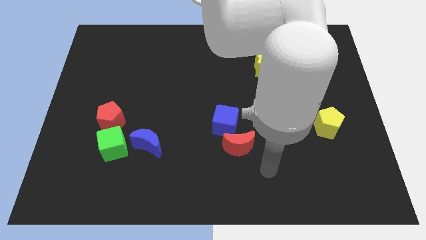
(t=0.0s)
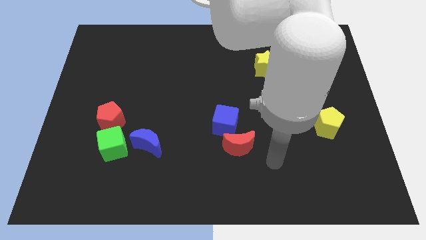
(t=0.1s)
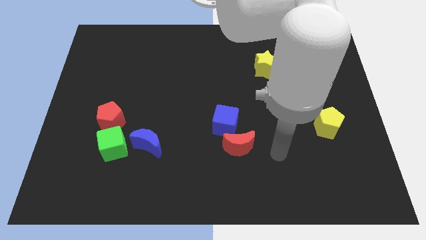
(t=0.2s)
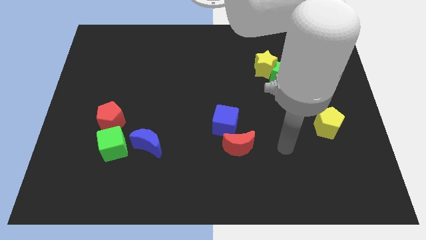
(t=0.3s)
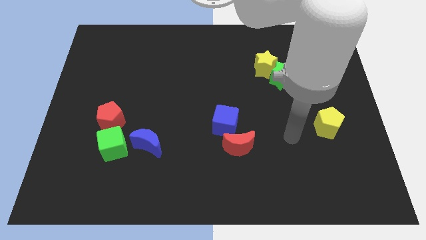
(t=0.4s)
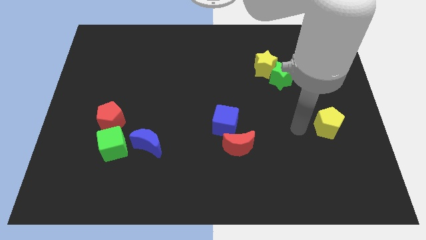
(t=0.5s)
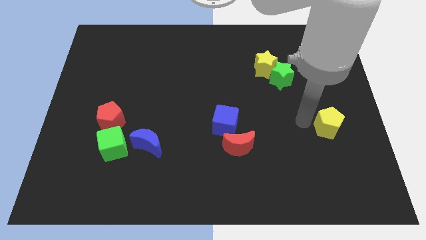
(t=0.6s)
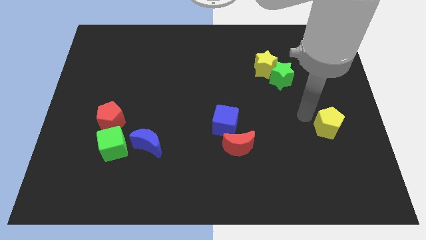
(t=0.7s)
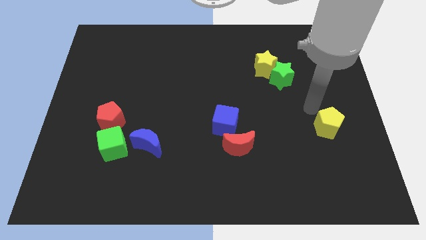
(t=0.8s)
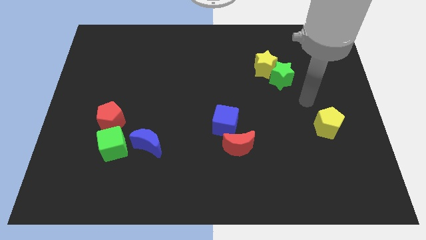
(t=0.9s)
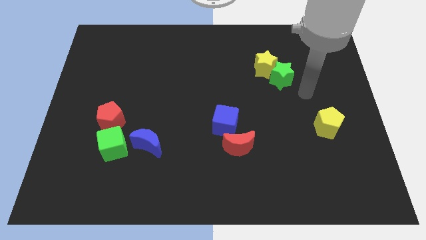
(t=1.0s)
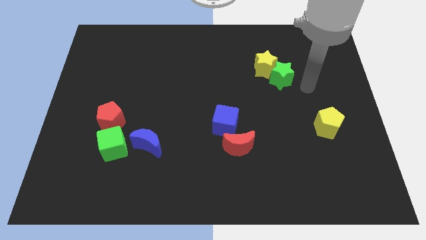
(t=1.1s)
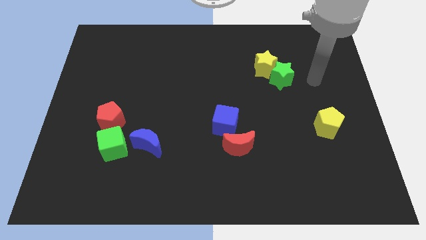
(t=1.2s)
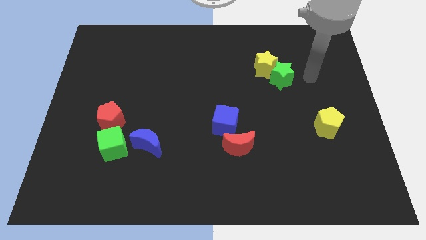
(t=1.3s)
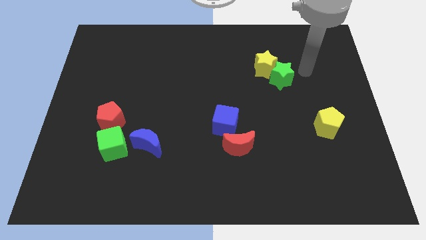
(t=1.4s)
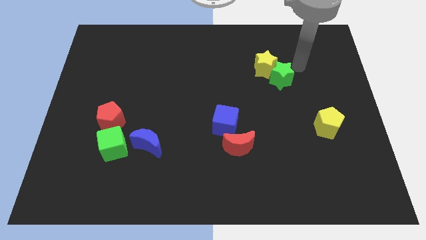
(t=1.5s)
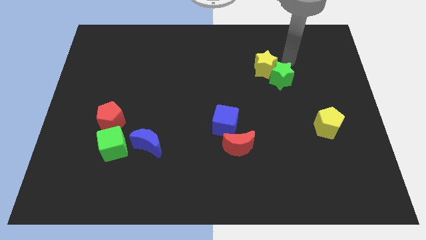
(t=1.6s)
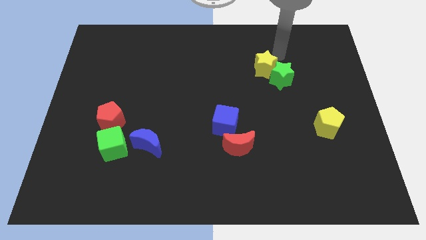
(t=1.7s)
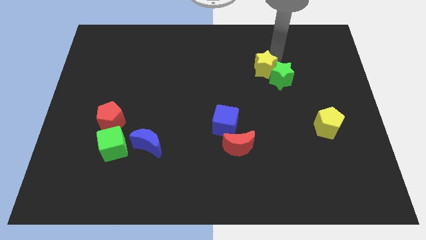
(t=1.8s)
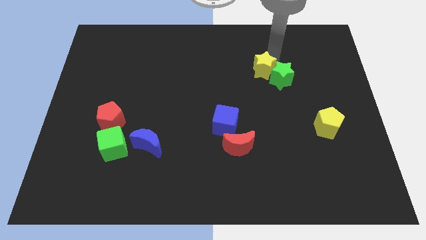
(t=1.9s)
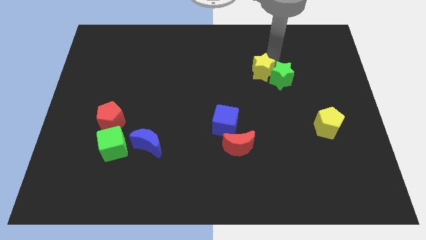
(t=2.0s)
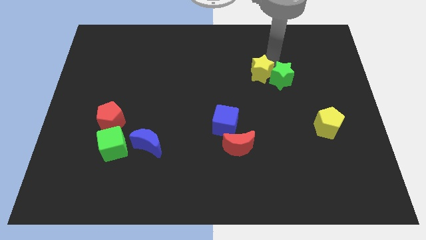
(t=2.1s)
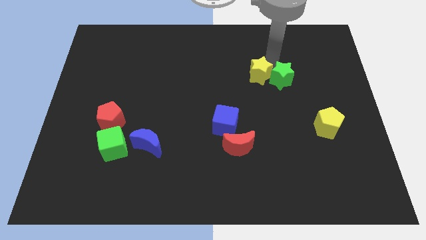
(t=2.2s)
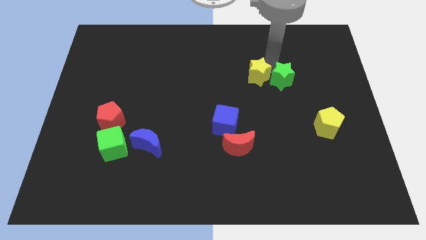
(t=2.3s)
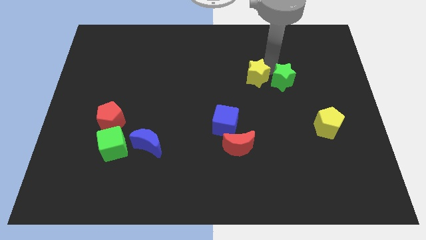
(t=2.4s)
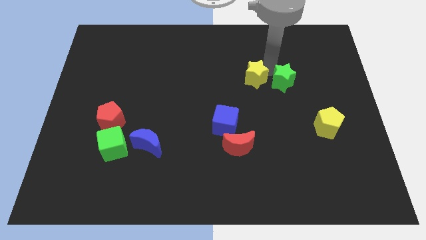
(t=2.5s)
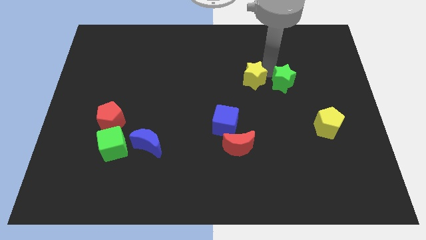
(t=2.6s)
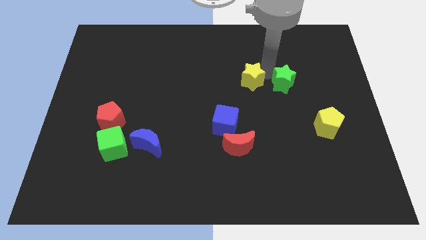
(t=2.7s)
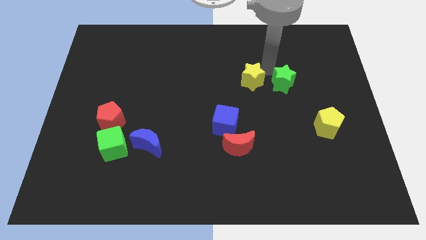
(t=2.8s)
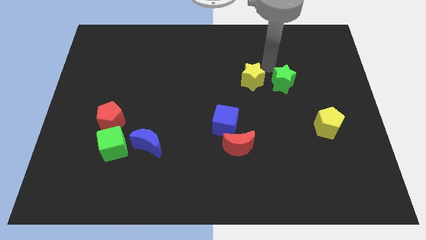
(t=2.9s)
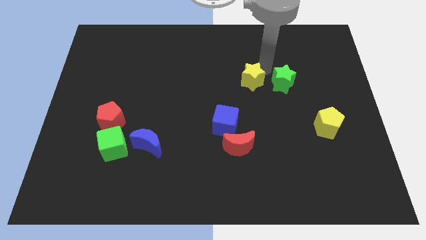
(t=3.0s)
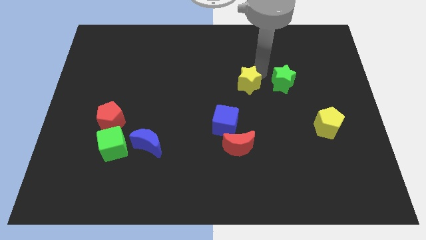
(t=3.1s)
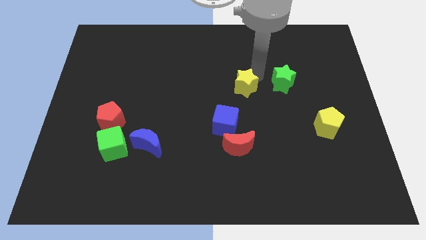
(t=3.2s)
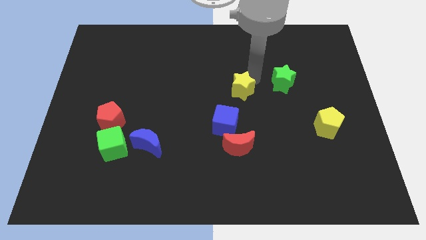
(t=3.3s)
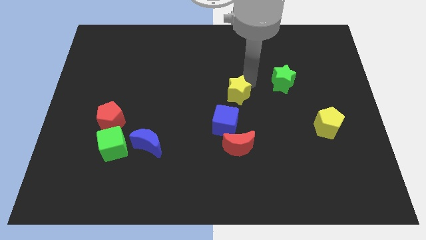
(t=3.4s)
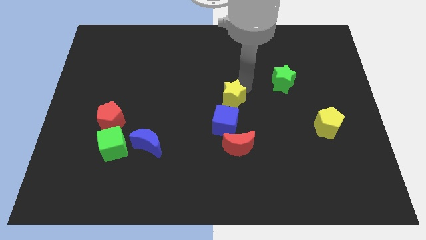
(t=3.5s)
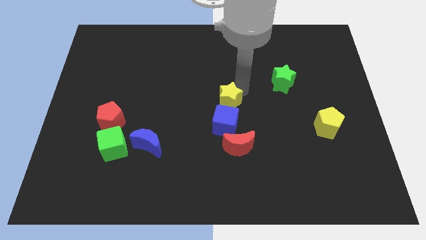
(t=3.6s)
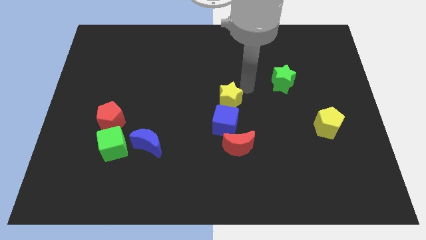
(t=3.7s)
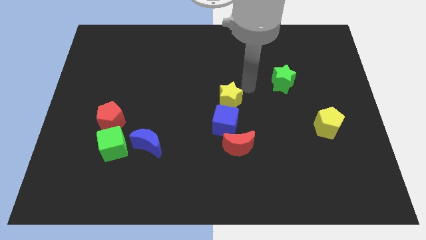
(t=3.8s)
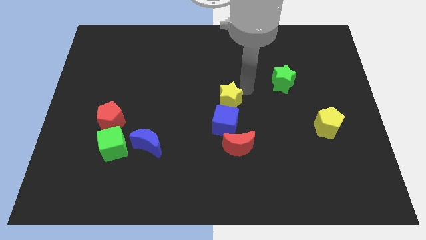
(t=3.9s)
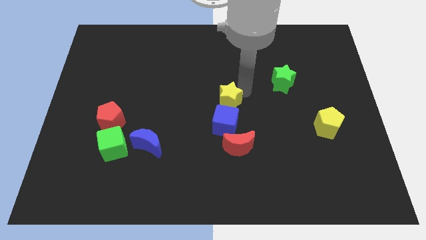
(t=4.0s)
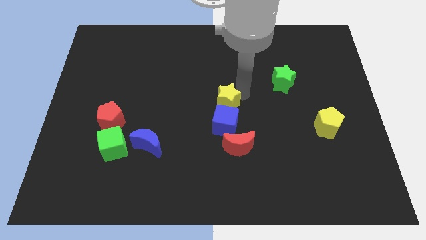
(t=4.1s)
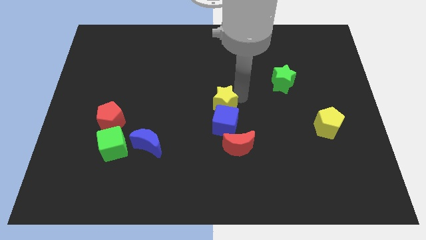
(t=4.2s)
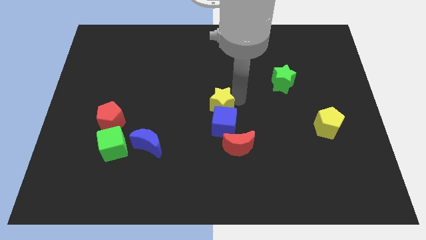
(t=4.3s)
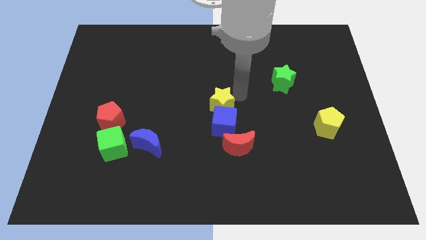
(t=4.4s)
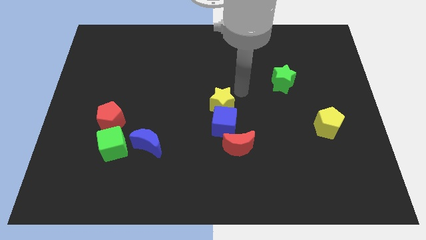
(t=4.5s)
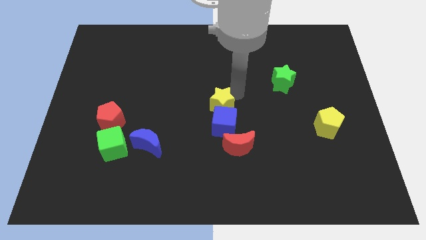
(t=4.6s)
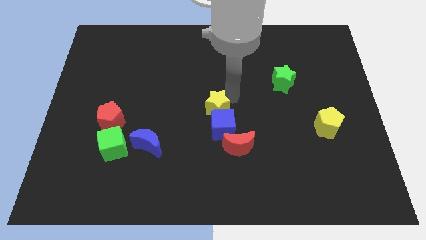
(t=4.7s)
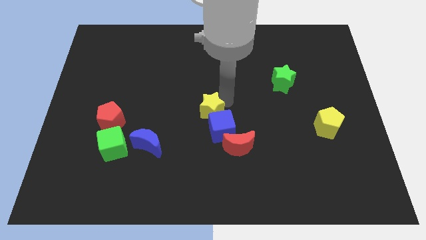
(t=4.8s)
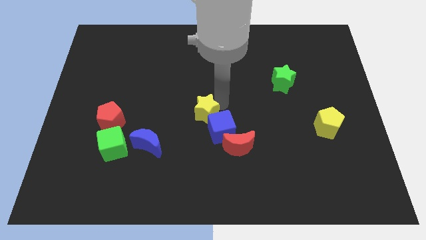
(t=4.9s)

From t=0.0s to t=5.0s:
push the yellow star diagonally down and left

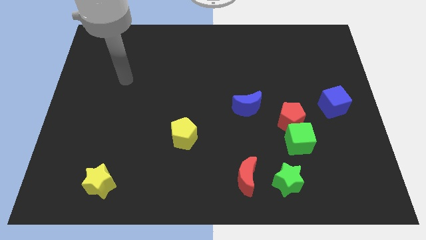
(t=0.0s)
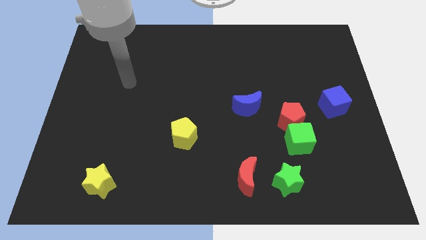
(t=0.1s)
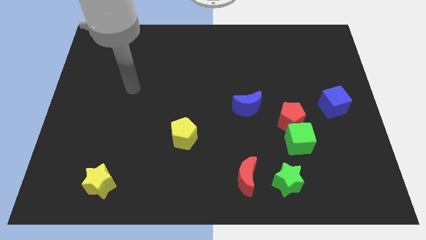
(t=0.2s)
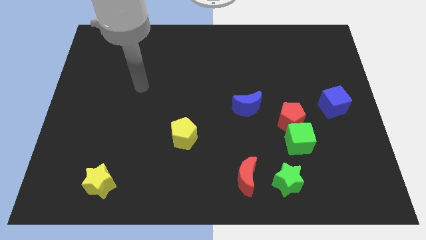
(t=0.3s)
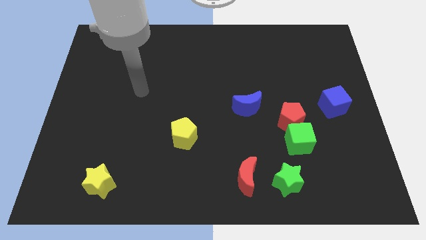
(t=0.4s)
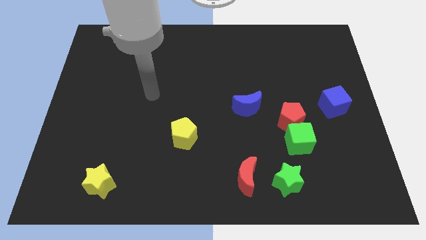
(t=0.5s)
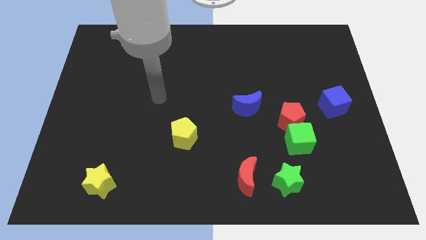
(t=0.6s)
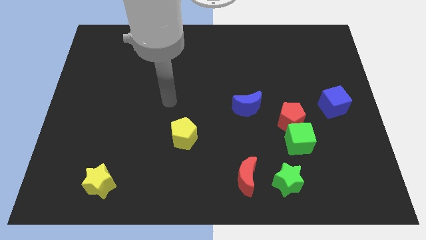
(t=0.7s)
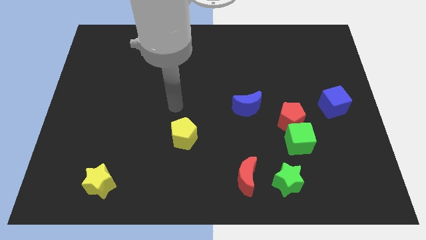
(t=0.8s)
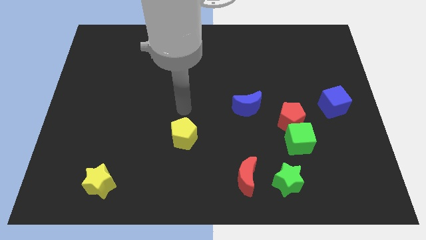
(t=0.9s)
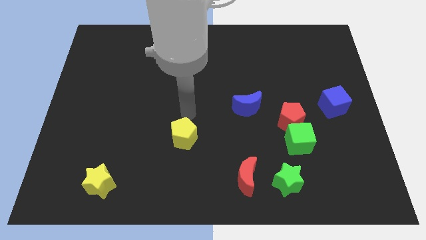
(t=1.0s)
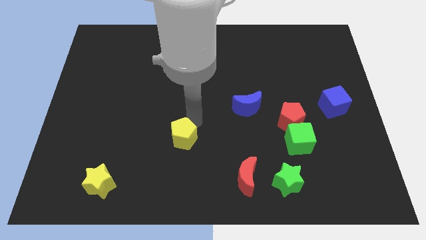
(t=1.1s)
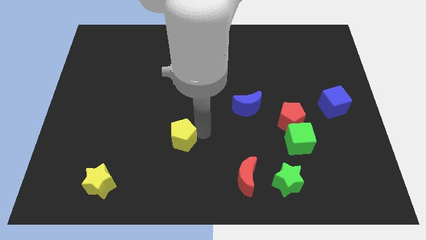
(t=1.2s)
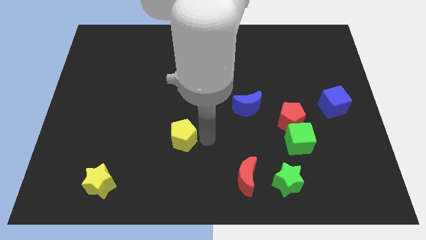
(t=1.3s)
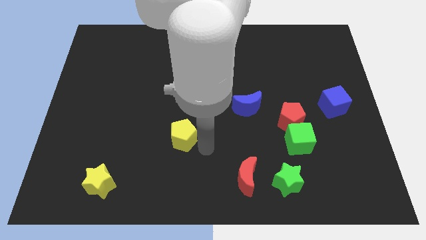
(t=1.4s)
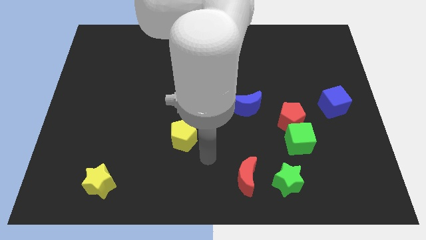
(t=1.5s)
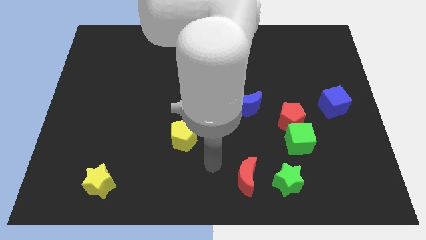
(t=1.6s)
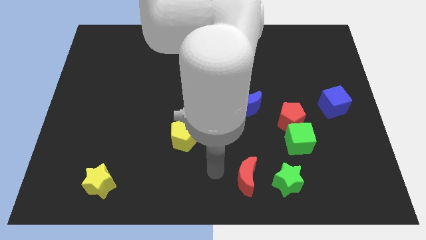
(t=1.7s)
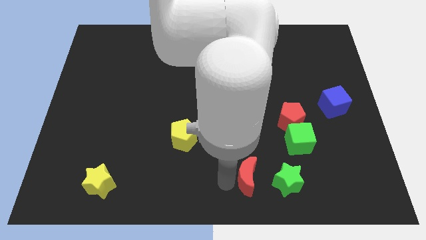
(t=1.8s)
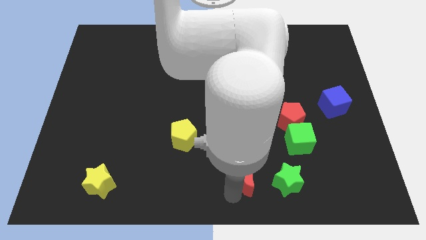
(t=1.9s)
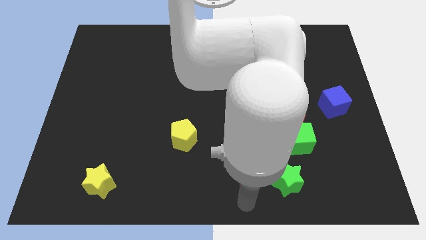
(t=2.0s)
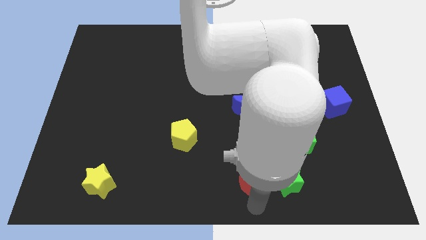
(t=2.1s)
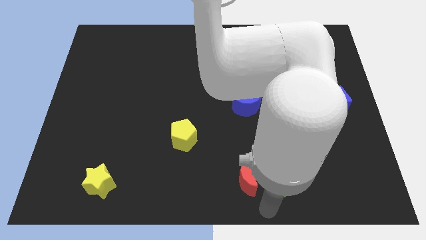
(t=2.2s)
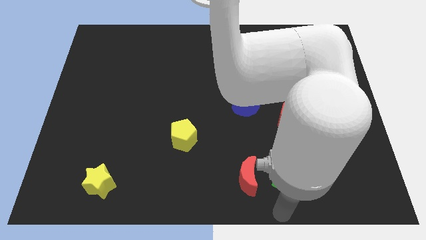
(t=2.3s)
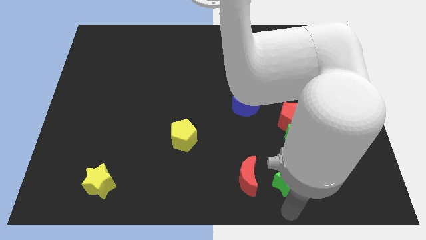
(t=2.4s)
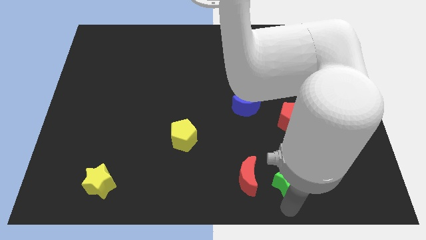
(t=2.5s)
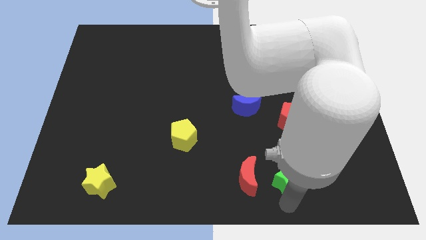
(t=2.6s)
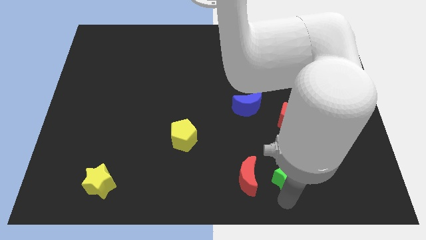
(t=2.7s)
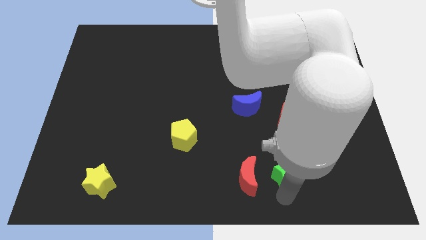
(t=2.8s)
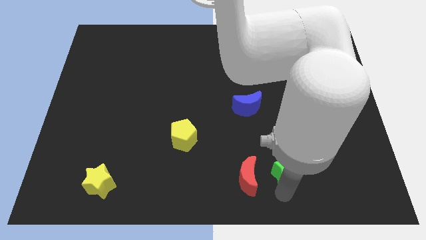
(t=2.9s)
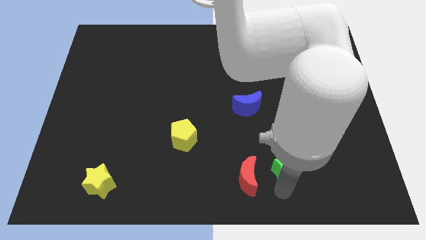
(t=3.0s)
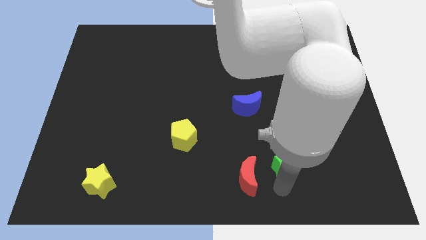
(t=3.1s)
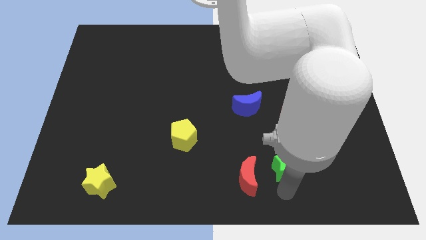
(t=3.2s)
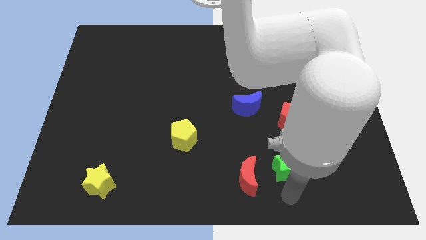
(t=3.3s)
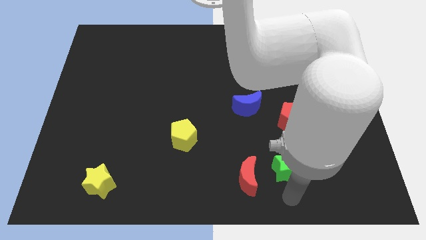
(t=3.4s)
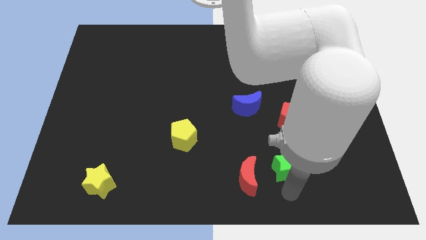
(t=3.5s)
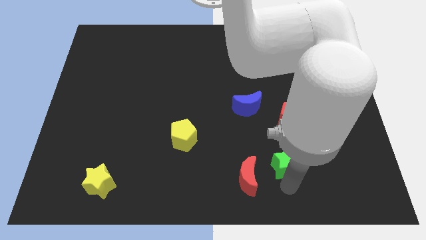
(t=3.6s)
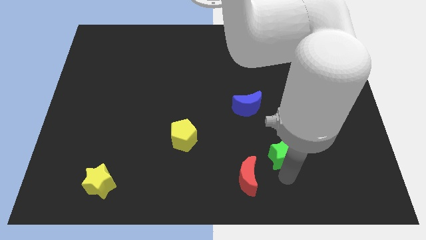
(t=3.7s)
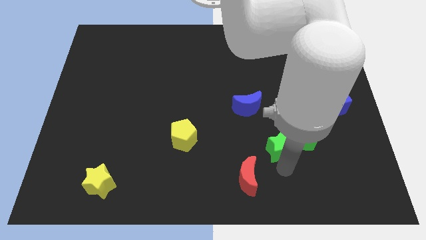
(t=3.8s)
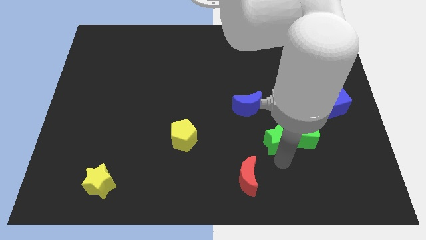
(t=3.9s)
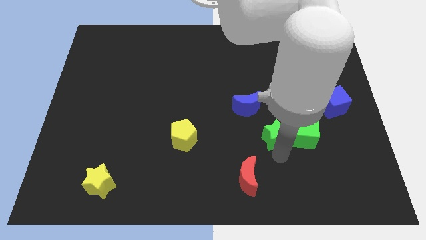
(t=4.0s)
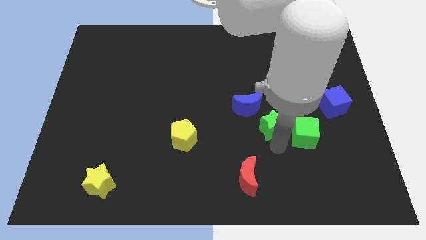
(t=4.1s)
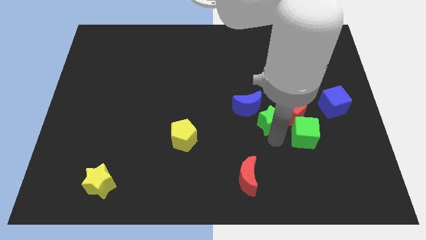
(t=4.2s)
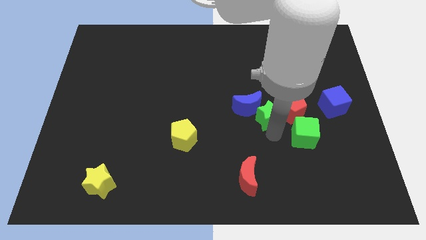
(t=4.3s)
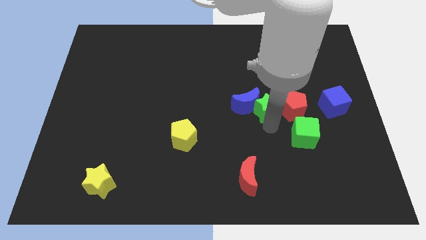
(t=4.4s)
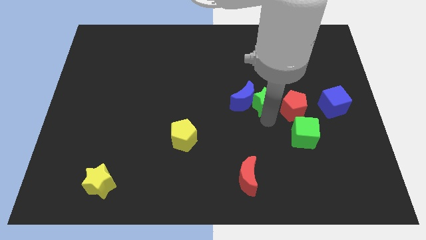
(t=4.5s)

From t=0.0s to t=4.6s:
push the green star up
